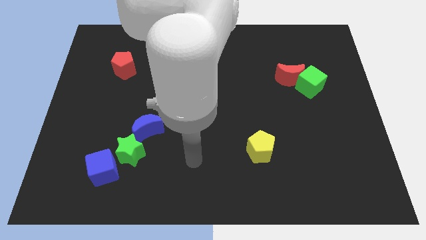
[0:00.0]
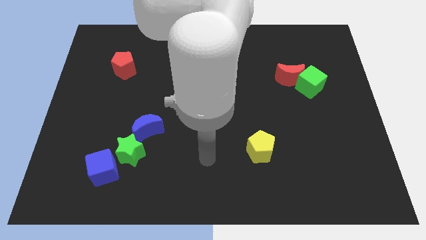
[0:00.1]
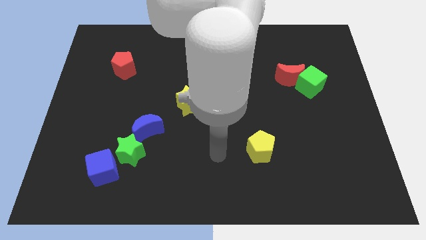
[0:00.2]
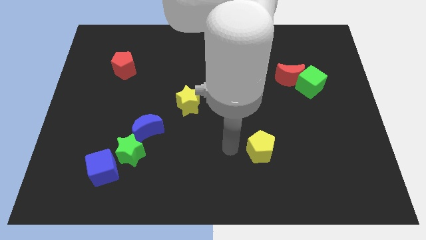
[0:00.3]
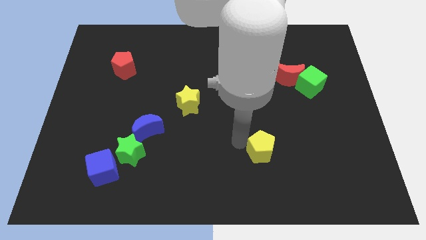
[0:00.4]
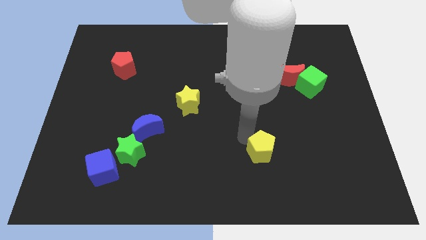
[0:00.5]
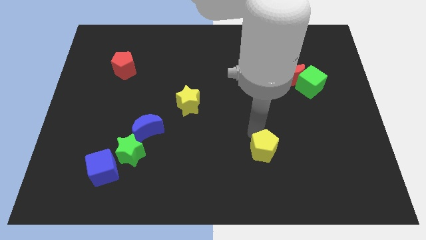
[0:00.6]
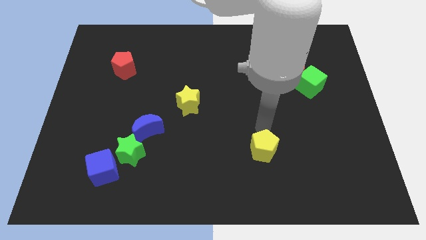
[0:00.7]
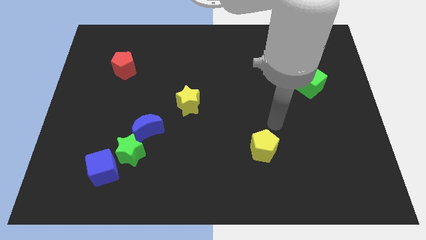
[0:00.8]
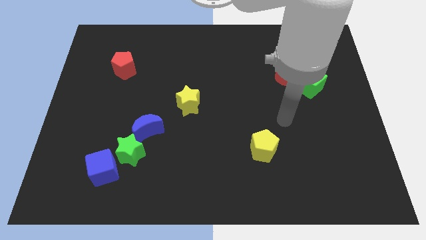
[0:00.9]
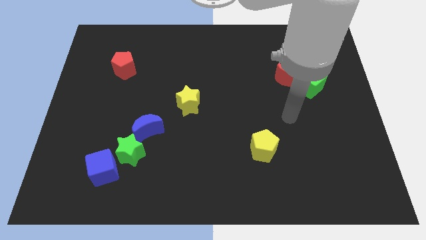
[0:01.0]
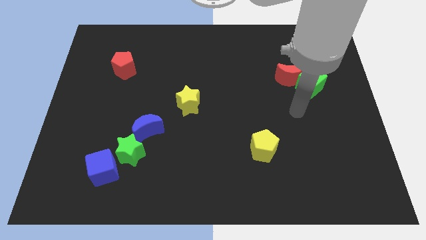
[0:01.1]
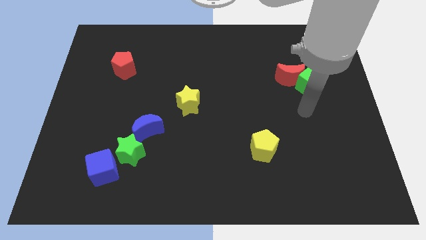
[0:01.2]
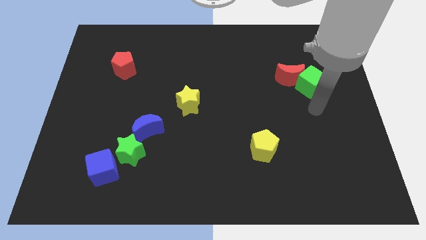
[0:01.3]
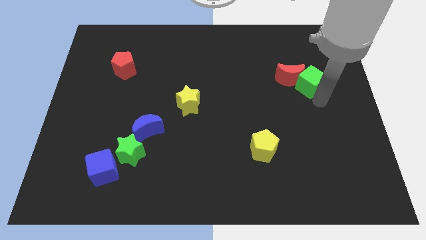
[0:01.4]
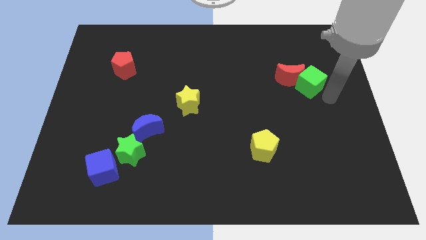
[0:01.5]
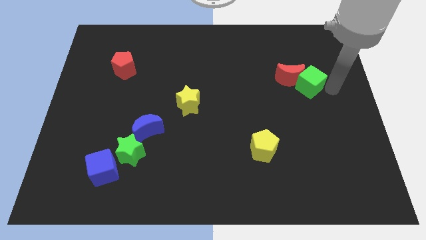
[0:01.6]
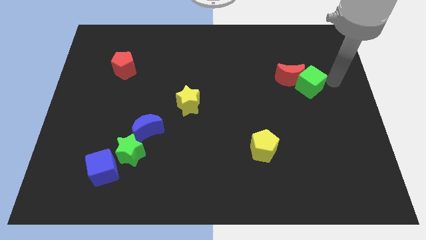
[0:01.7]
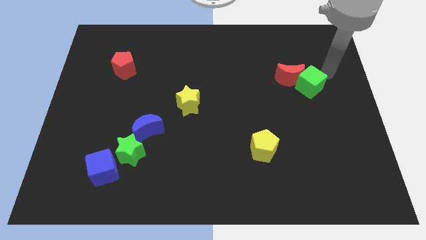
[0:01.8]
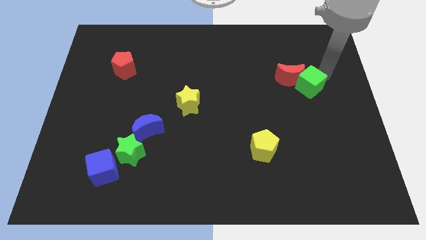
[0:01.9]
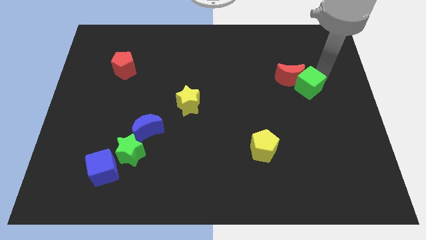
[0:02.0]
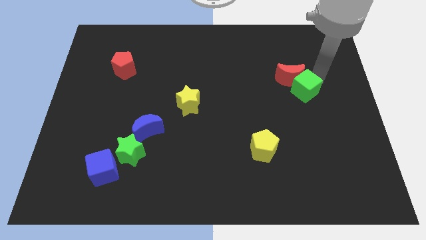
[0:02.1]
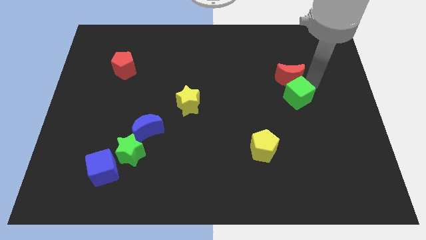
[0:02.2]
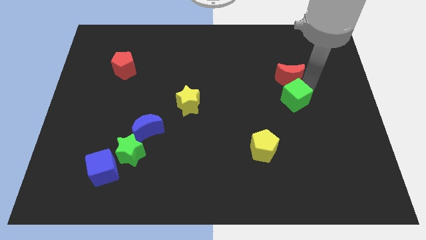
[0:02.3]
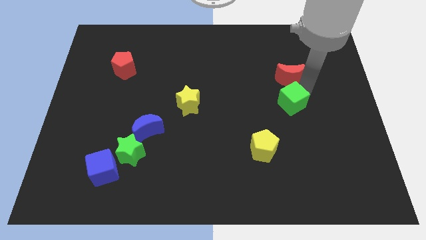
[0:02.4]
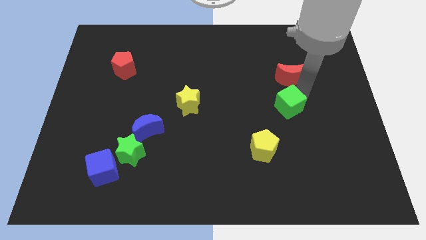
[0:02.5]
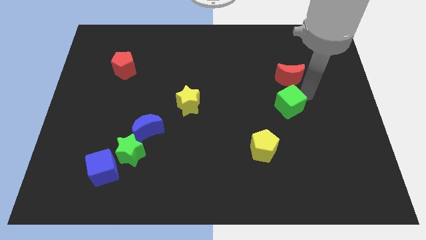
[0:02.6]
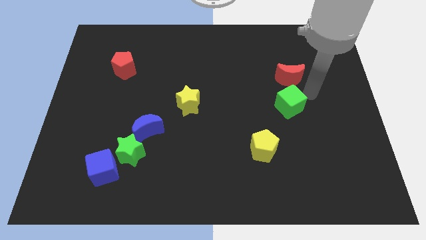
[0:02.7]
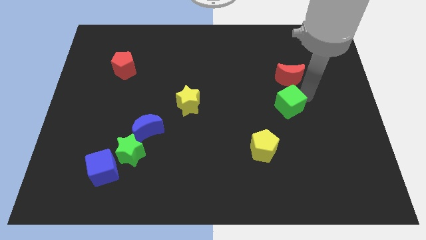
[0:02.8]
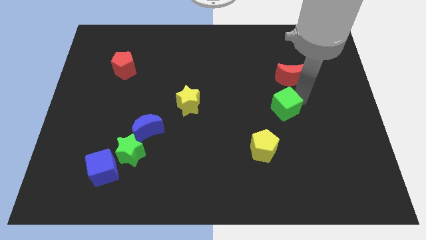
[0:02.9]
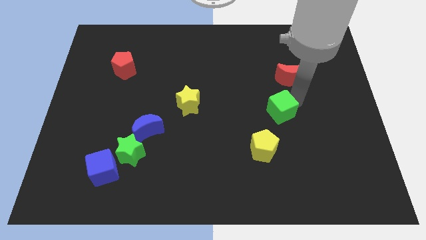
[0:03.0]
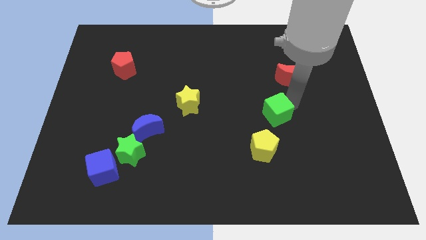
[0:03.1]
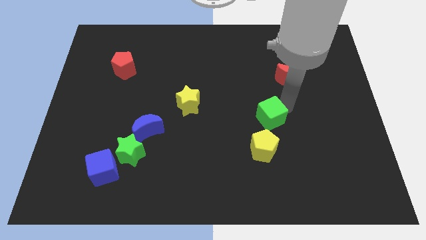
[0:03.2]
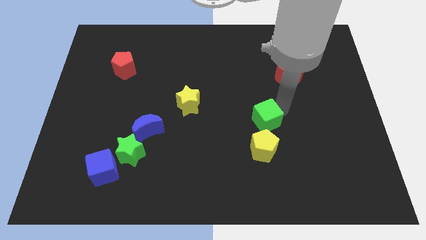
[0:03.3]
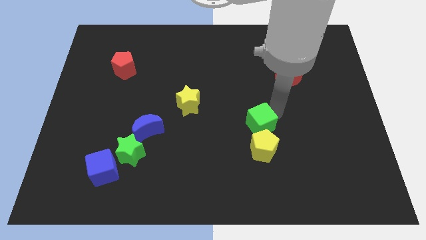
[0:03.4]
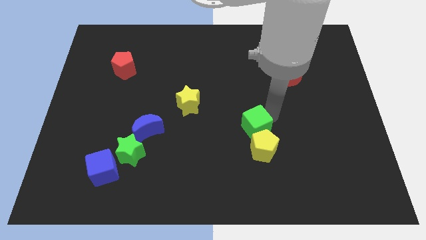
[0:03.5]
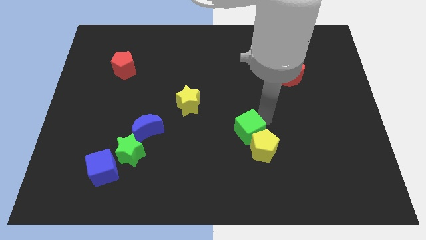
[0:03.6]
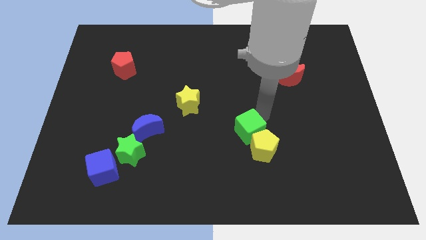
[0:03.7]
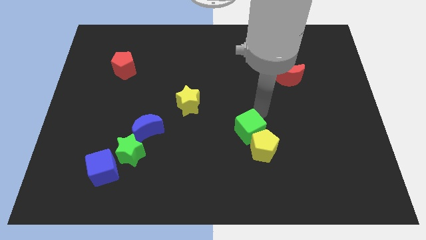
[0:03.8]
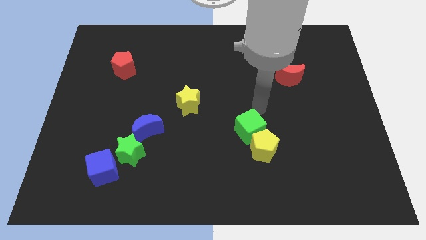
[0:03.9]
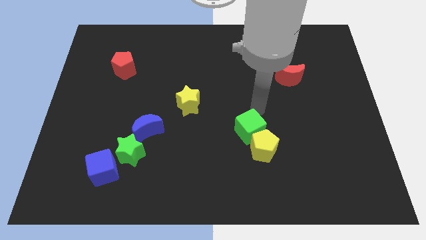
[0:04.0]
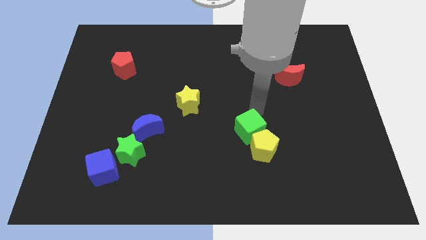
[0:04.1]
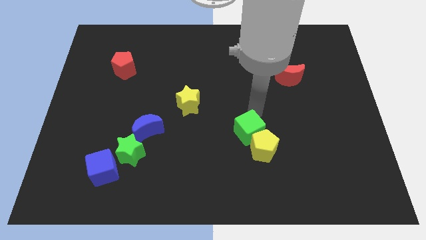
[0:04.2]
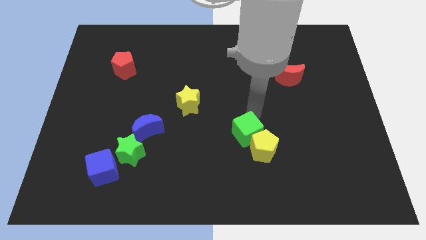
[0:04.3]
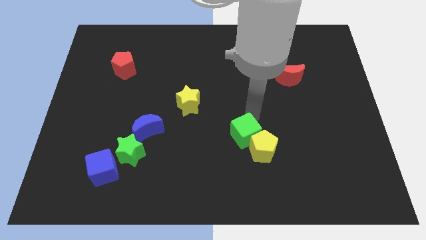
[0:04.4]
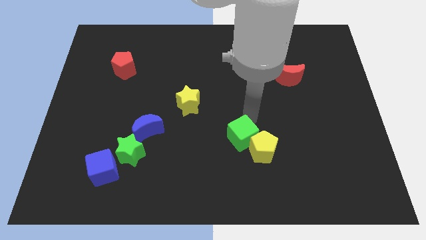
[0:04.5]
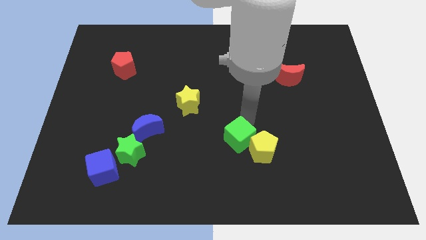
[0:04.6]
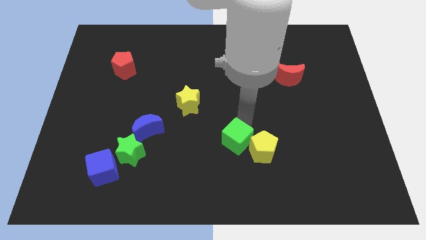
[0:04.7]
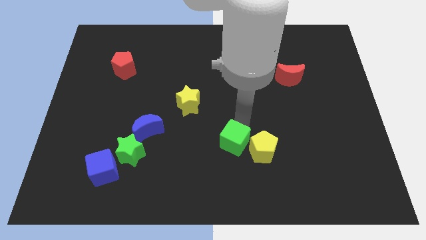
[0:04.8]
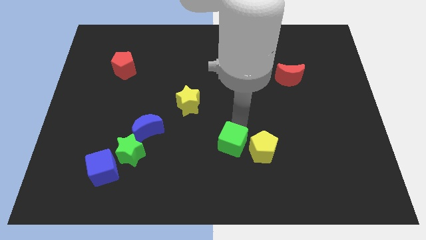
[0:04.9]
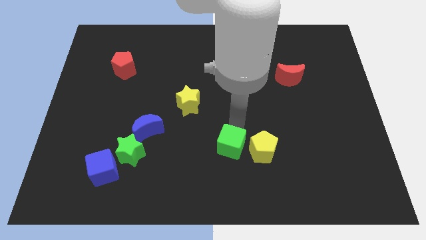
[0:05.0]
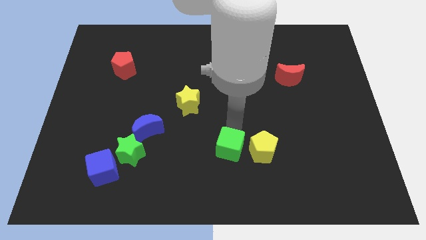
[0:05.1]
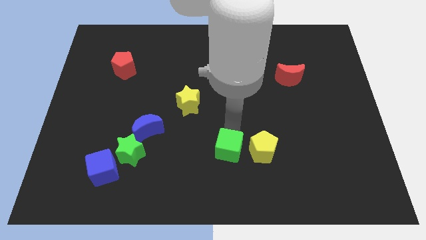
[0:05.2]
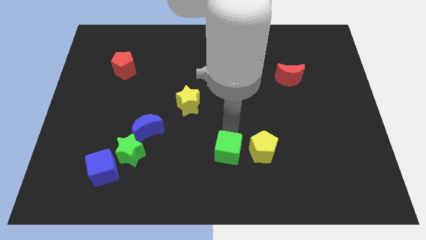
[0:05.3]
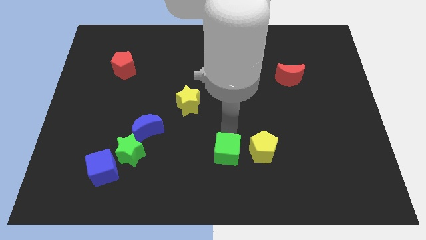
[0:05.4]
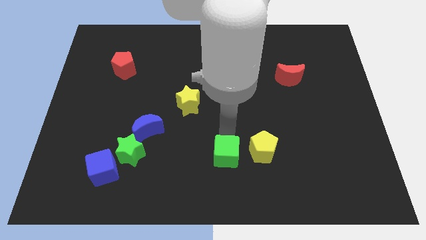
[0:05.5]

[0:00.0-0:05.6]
push the green cube to the bottom side

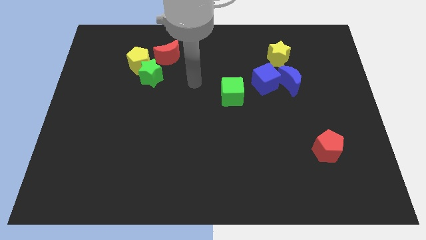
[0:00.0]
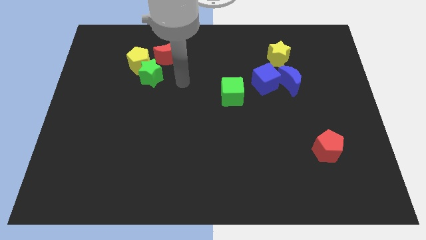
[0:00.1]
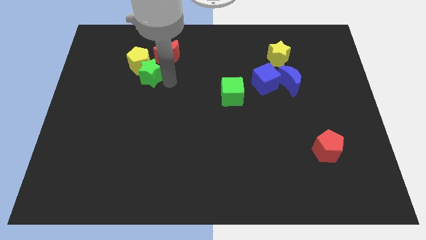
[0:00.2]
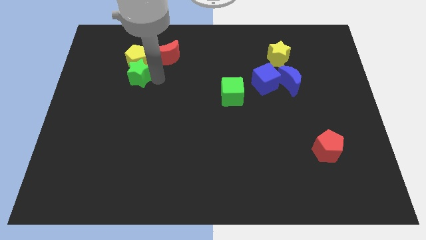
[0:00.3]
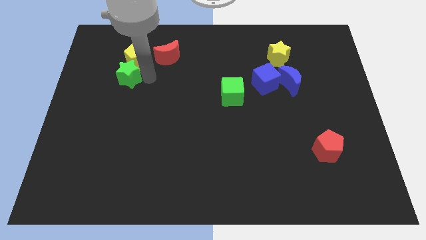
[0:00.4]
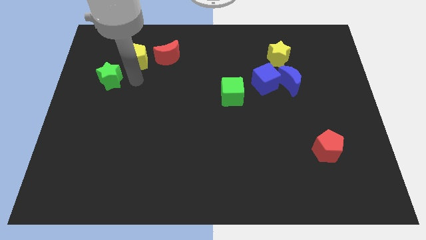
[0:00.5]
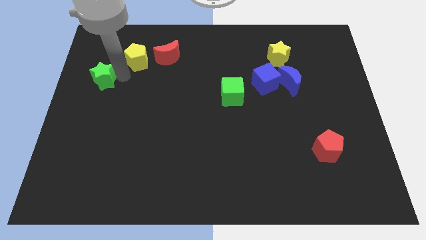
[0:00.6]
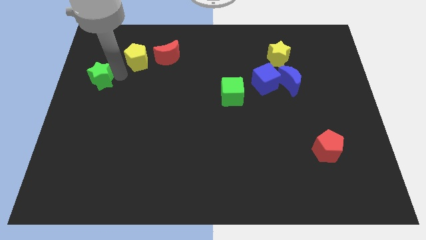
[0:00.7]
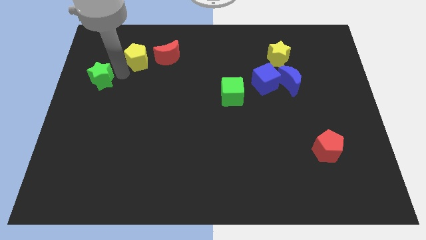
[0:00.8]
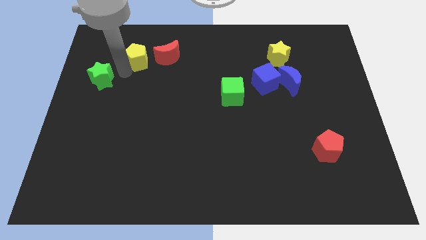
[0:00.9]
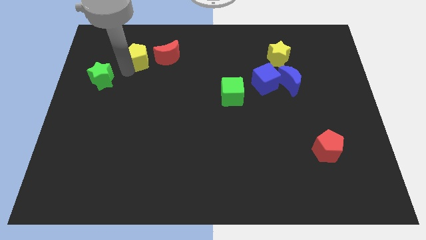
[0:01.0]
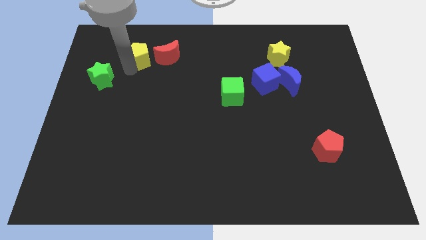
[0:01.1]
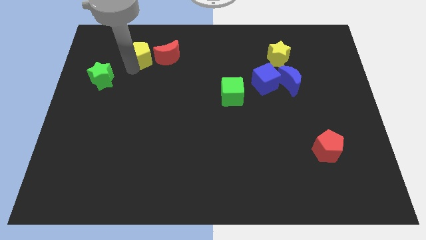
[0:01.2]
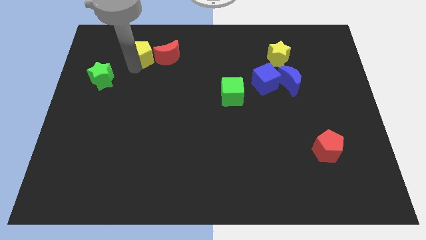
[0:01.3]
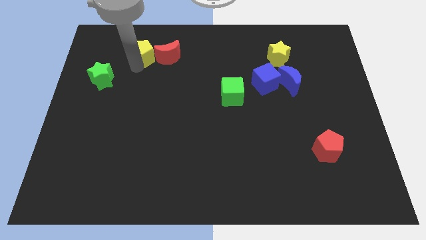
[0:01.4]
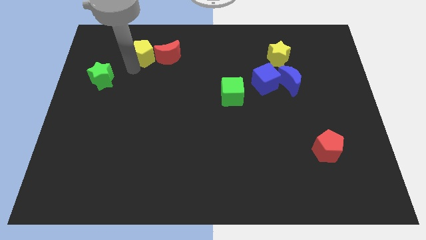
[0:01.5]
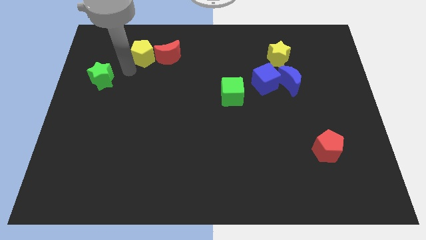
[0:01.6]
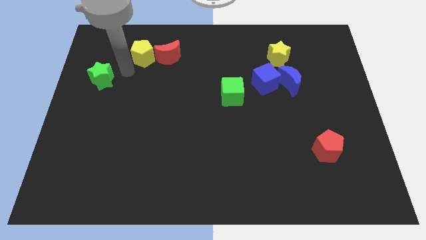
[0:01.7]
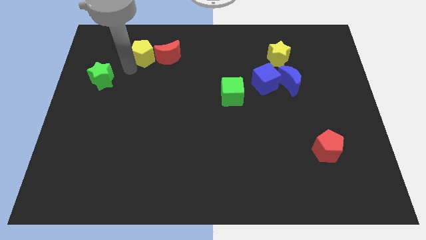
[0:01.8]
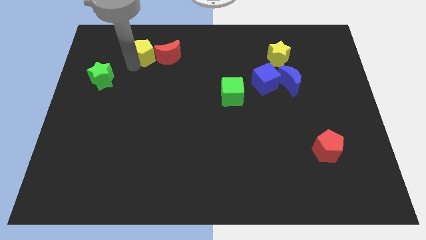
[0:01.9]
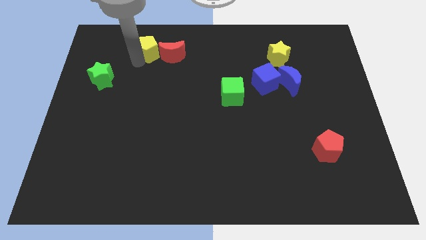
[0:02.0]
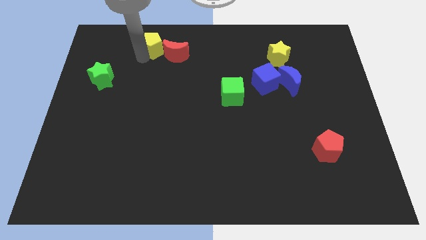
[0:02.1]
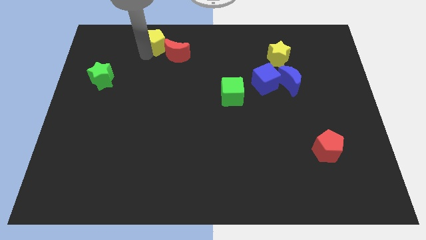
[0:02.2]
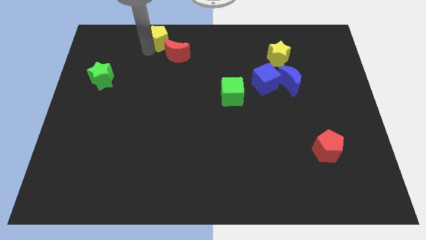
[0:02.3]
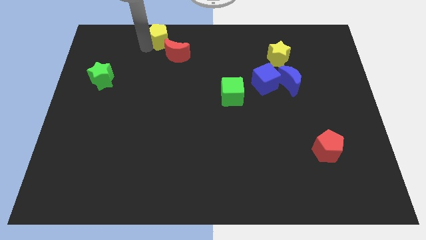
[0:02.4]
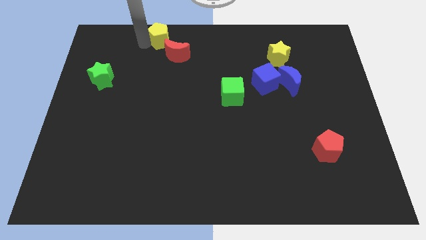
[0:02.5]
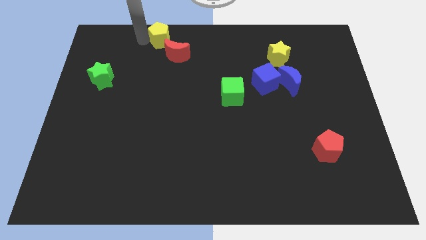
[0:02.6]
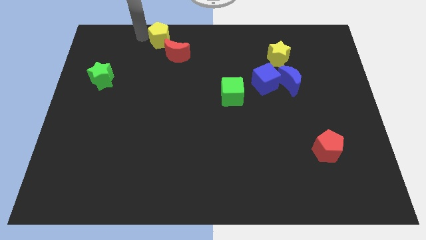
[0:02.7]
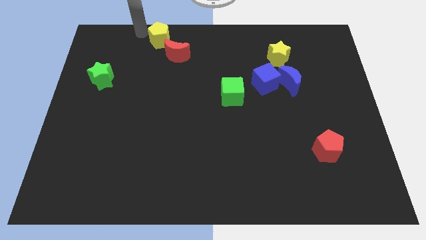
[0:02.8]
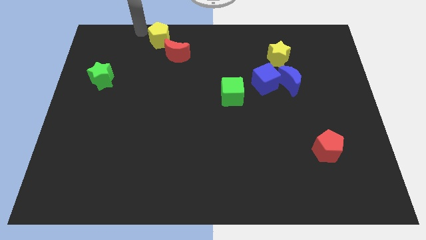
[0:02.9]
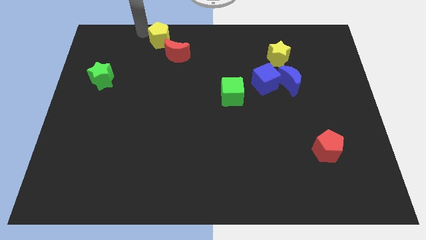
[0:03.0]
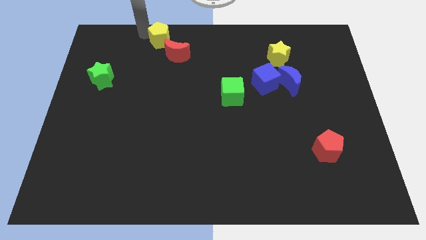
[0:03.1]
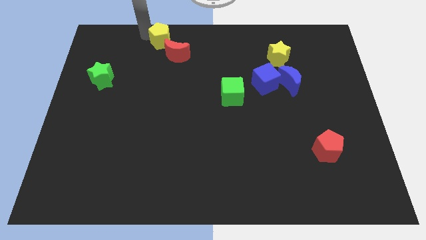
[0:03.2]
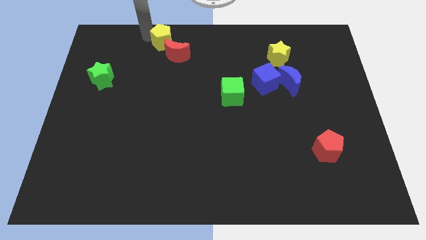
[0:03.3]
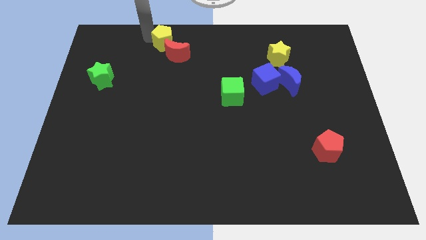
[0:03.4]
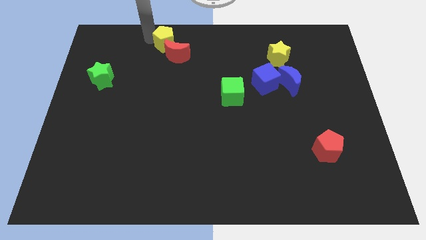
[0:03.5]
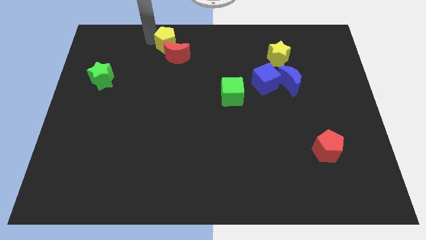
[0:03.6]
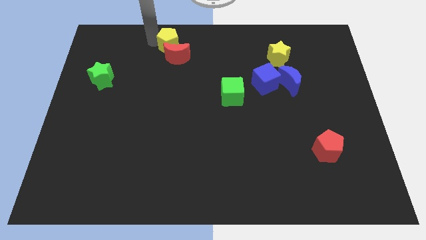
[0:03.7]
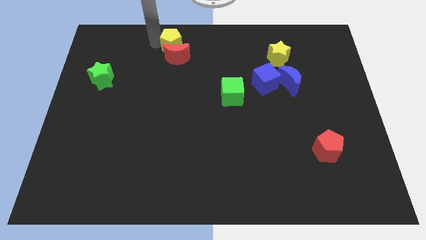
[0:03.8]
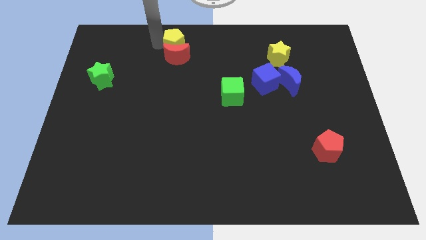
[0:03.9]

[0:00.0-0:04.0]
put the yellow pentagon to the top side
